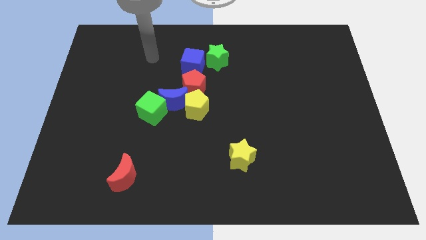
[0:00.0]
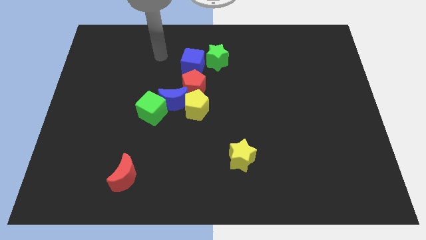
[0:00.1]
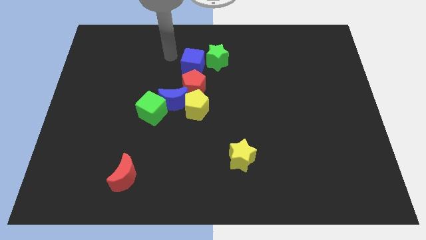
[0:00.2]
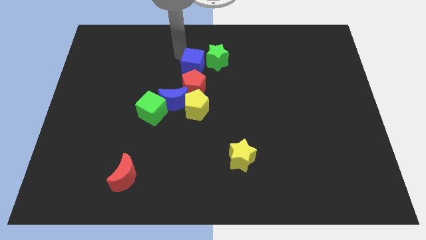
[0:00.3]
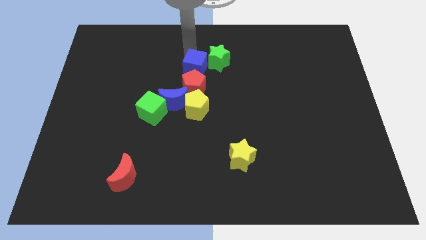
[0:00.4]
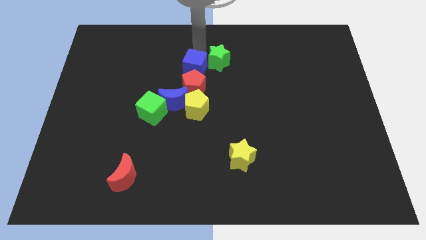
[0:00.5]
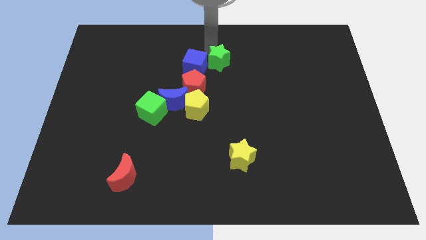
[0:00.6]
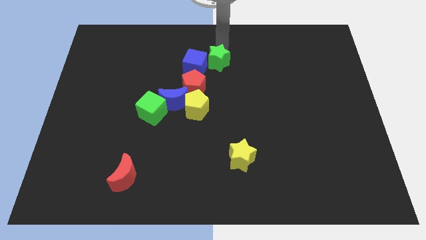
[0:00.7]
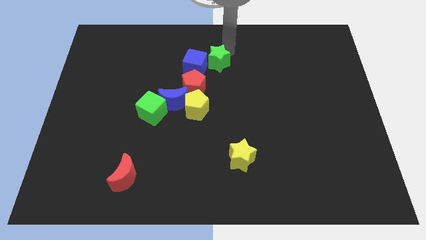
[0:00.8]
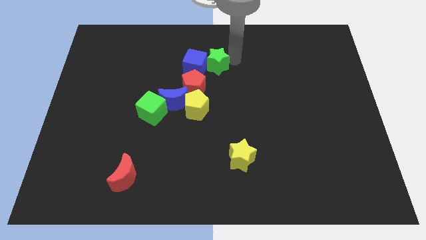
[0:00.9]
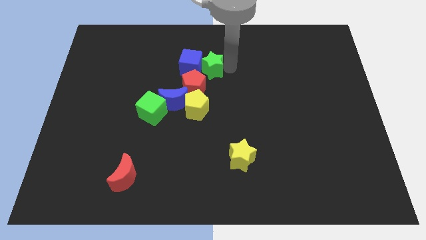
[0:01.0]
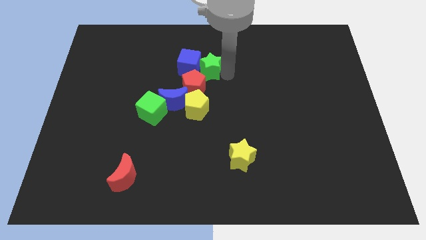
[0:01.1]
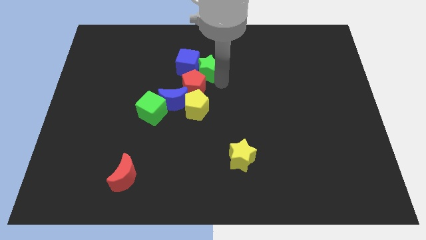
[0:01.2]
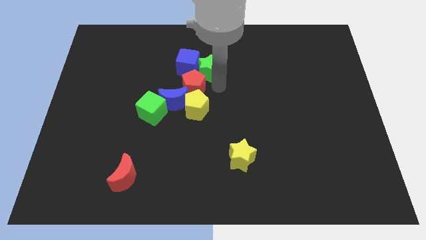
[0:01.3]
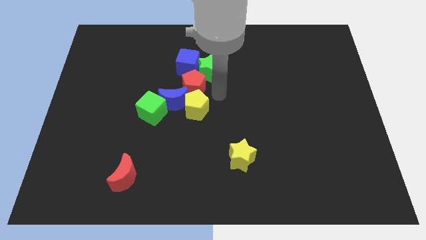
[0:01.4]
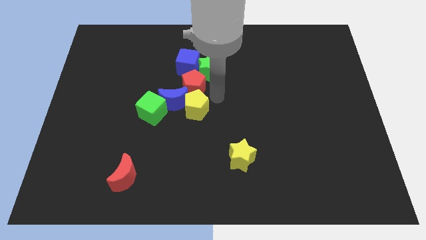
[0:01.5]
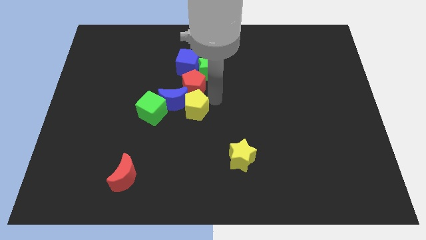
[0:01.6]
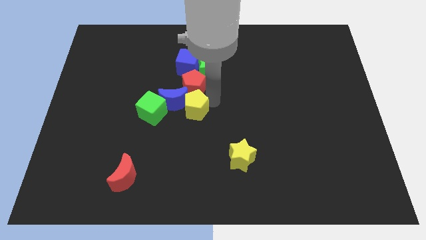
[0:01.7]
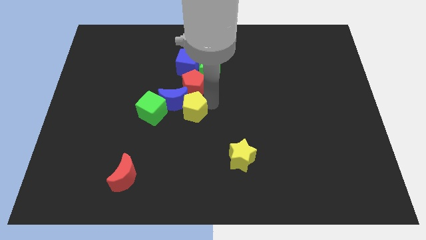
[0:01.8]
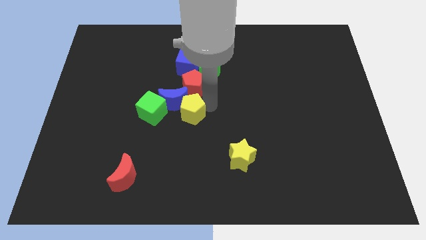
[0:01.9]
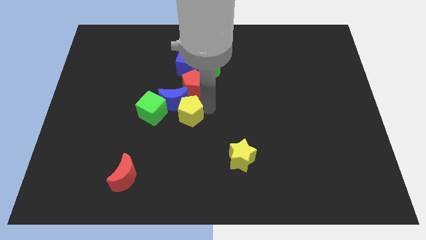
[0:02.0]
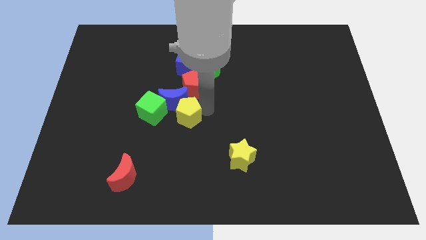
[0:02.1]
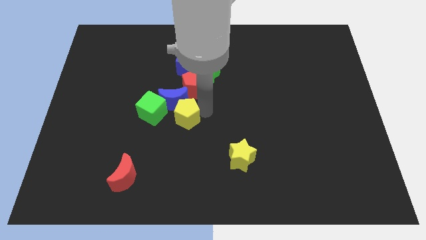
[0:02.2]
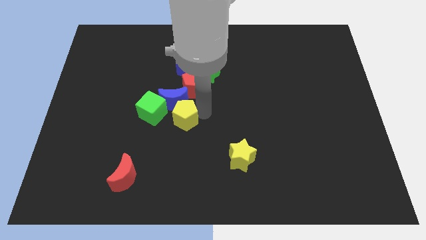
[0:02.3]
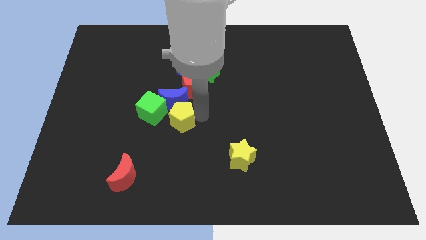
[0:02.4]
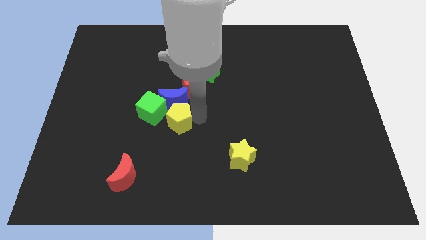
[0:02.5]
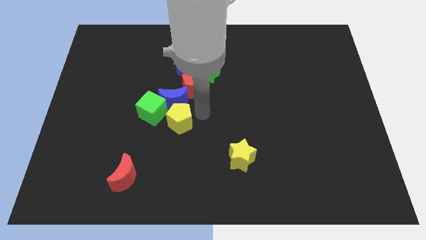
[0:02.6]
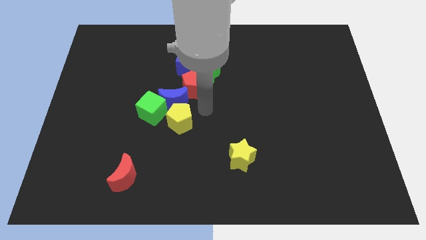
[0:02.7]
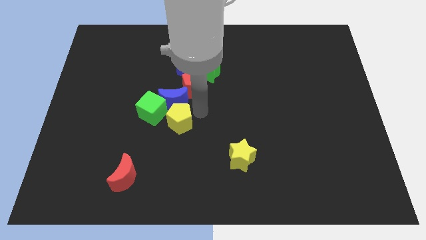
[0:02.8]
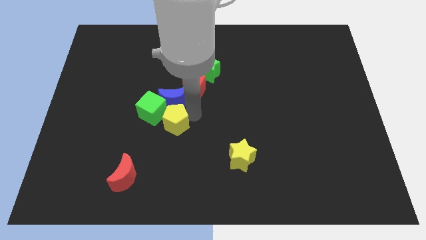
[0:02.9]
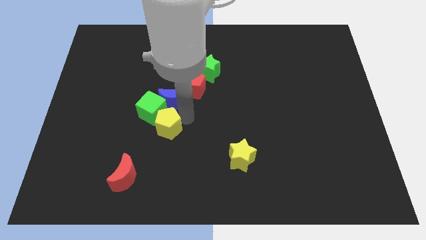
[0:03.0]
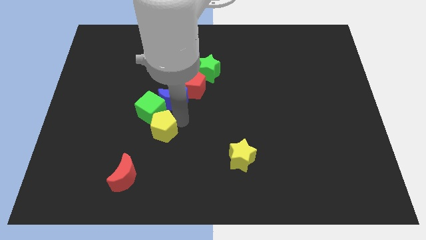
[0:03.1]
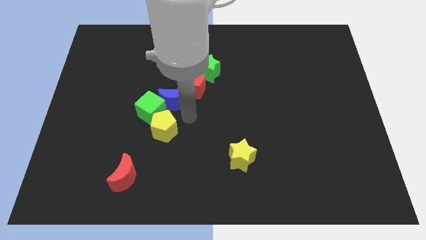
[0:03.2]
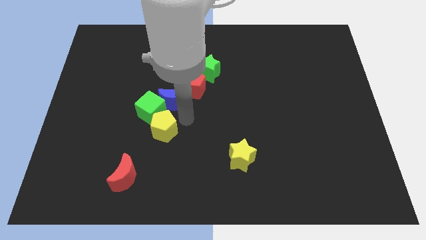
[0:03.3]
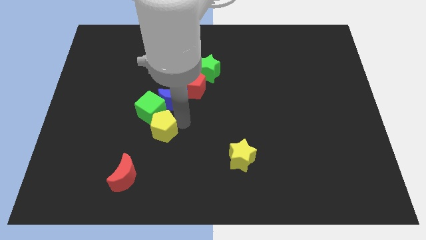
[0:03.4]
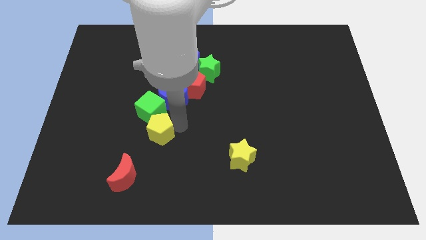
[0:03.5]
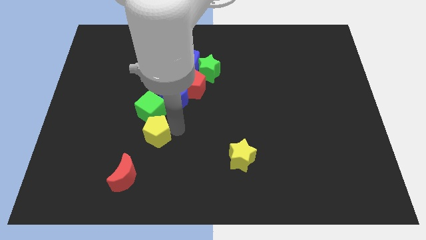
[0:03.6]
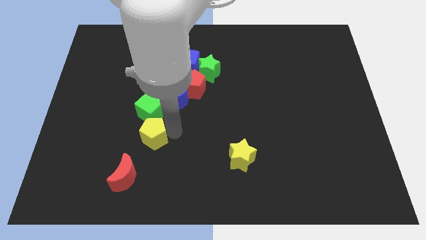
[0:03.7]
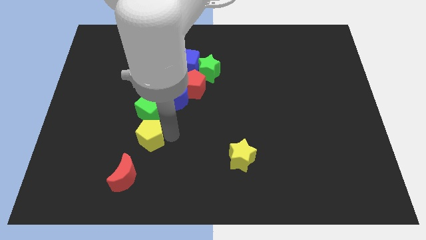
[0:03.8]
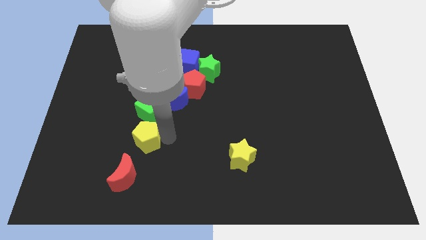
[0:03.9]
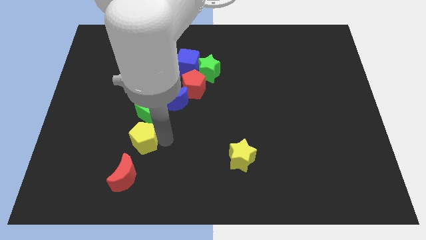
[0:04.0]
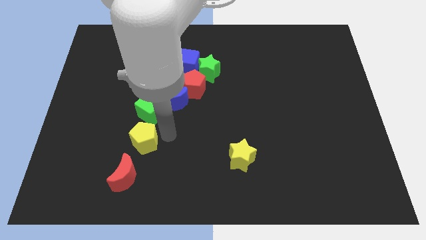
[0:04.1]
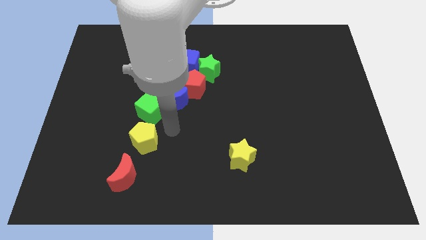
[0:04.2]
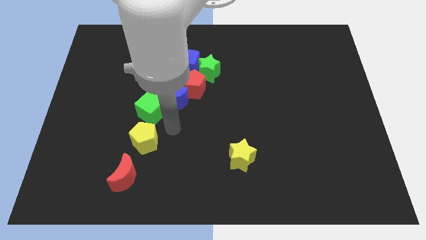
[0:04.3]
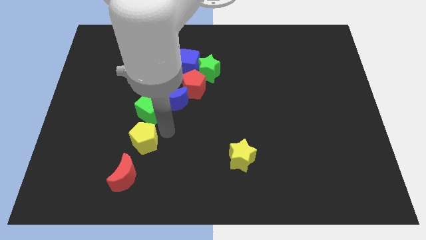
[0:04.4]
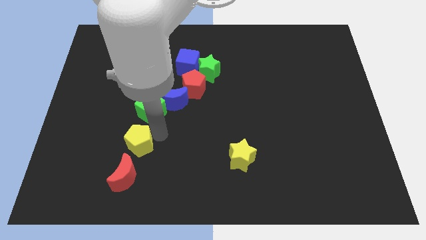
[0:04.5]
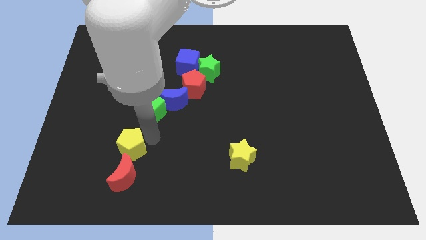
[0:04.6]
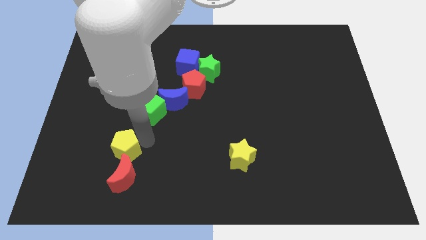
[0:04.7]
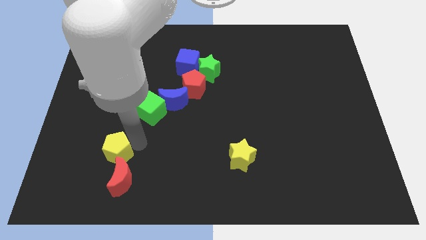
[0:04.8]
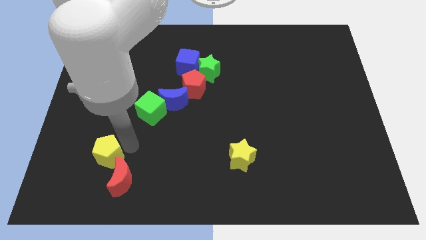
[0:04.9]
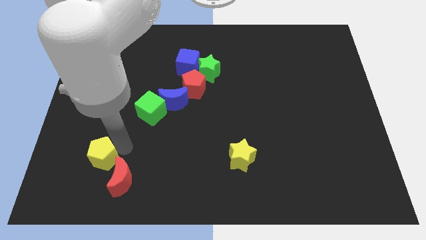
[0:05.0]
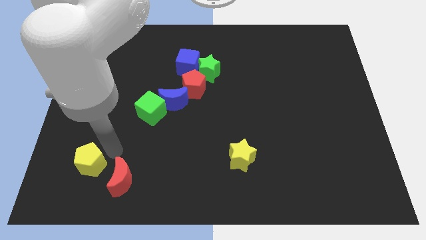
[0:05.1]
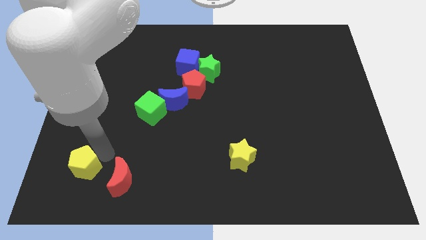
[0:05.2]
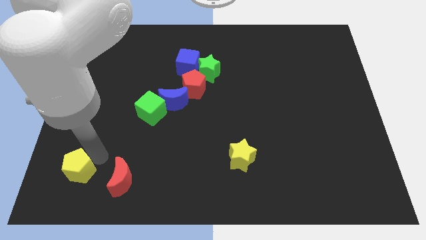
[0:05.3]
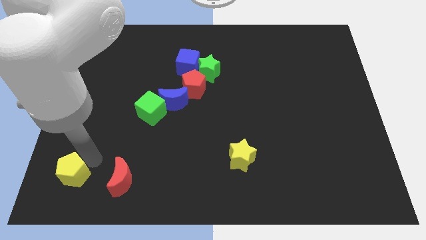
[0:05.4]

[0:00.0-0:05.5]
slide the yellow pentagon to the bottom left

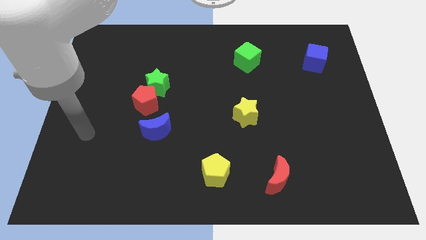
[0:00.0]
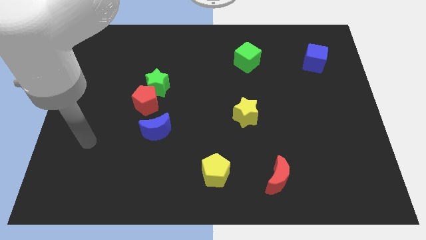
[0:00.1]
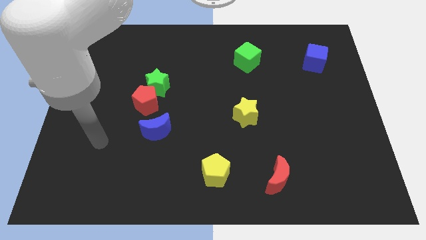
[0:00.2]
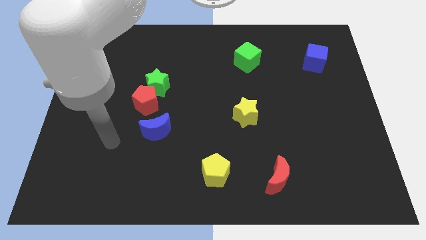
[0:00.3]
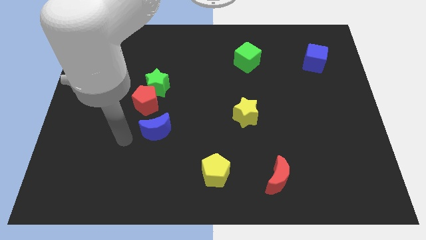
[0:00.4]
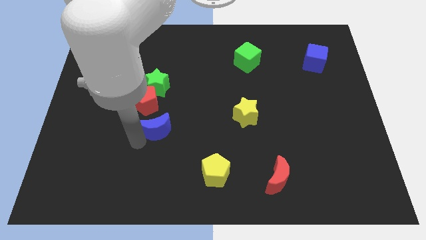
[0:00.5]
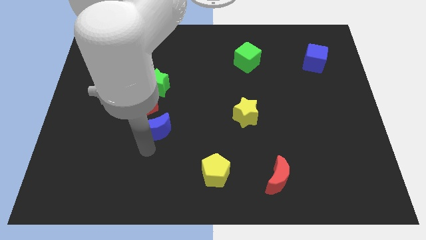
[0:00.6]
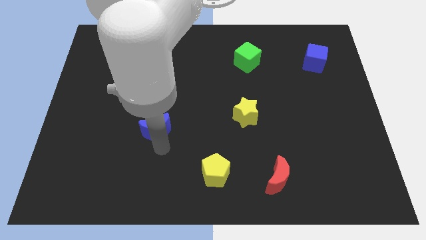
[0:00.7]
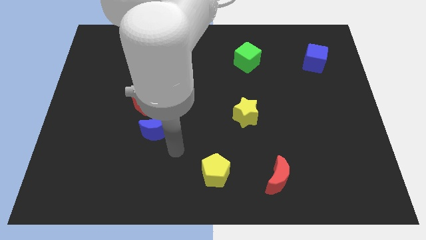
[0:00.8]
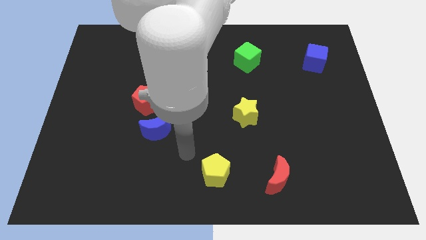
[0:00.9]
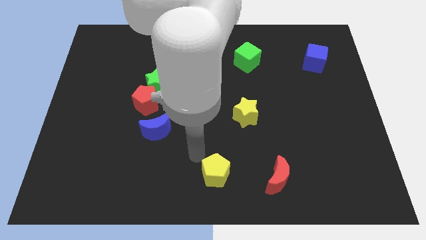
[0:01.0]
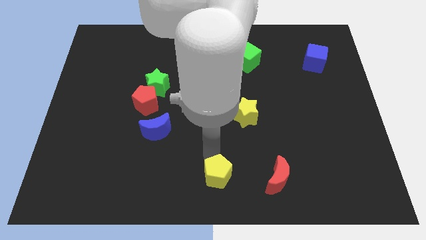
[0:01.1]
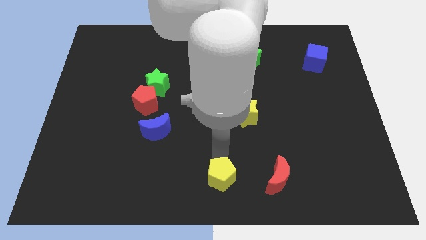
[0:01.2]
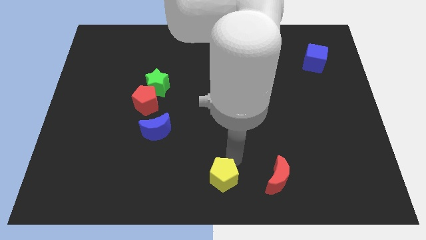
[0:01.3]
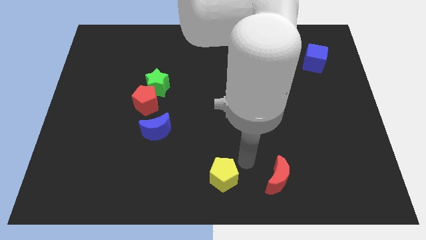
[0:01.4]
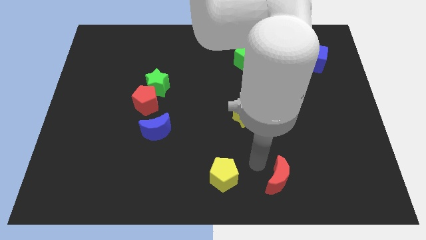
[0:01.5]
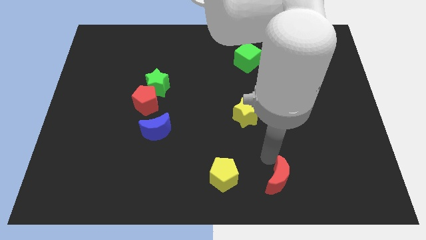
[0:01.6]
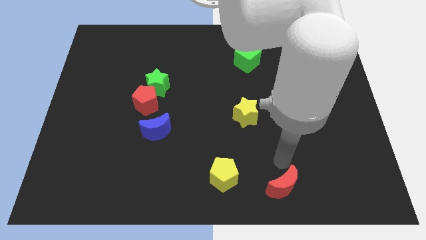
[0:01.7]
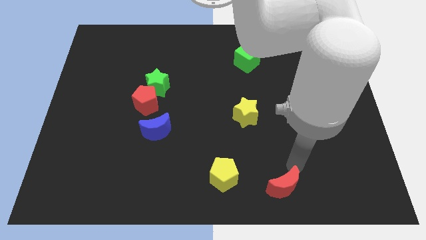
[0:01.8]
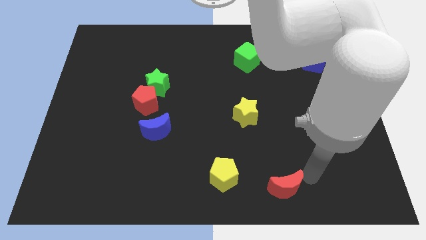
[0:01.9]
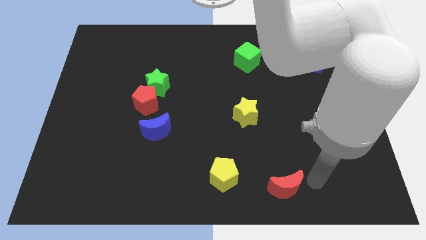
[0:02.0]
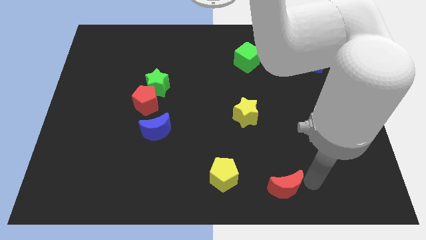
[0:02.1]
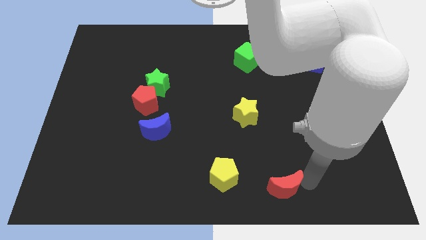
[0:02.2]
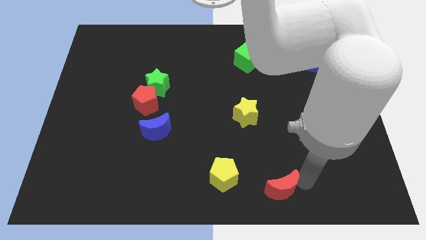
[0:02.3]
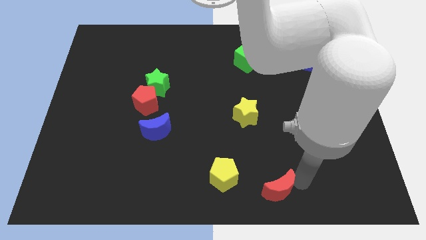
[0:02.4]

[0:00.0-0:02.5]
slide the red moon to the bottom

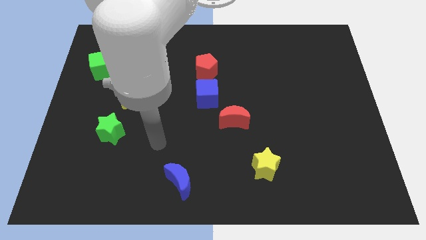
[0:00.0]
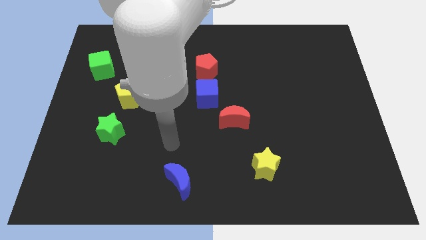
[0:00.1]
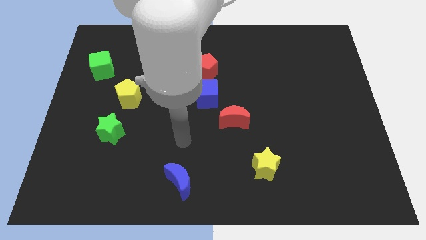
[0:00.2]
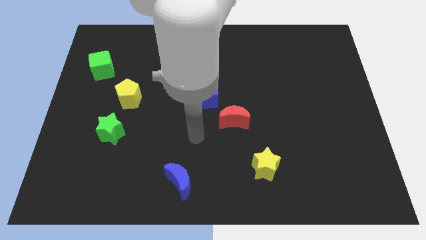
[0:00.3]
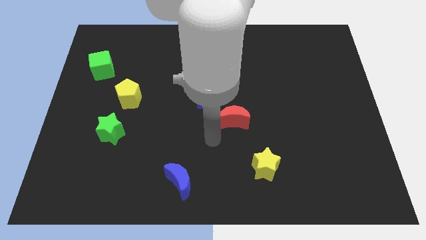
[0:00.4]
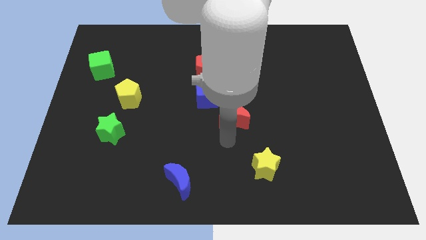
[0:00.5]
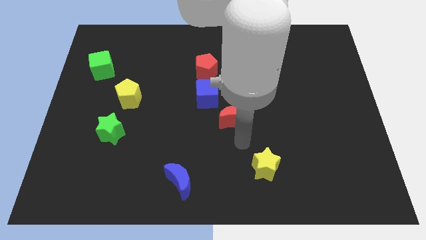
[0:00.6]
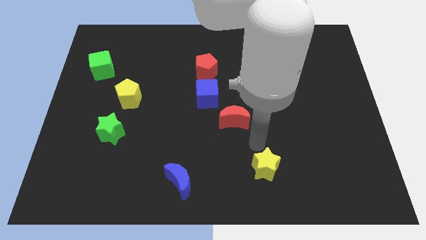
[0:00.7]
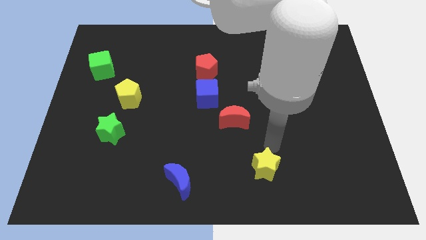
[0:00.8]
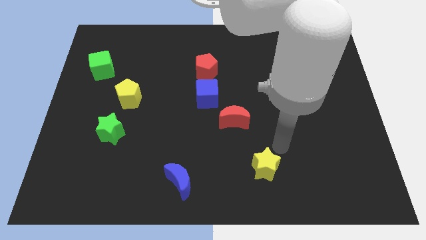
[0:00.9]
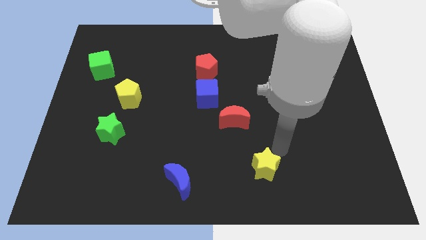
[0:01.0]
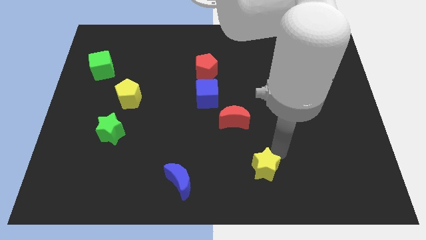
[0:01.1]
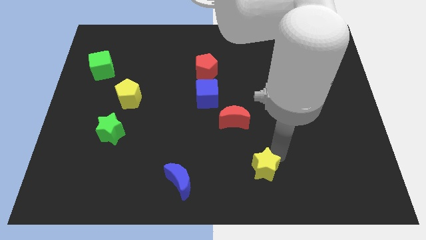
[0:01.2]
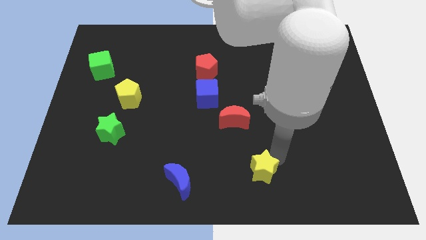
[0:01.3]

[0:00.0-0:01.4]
slide the yellow star to the bottom side
